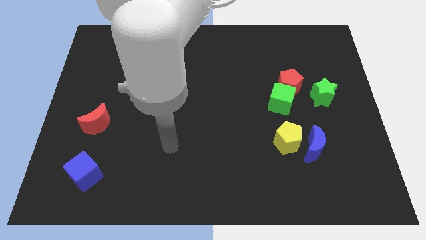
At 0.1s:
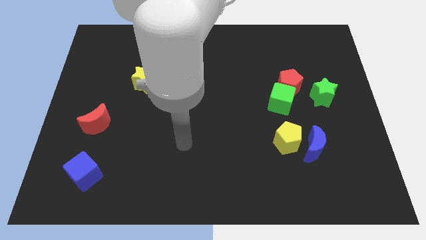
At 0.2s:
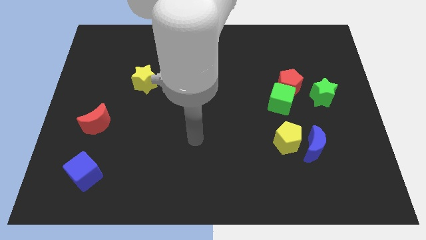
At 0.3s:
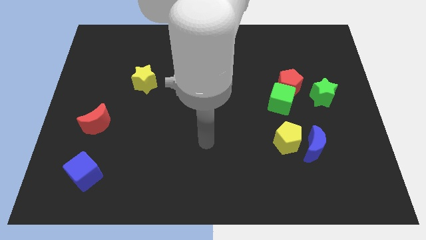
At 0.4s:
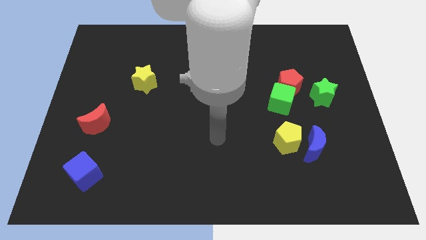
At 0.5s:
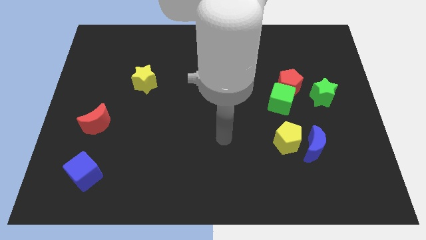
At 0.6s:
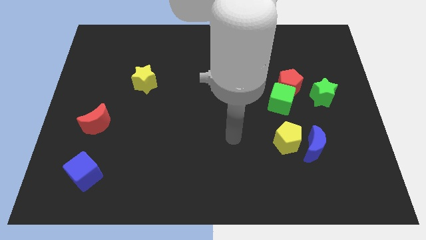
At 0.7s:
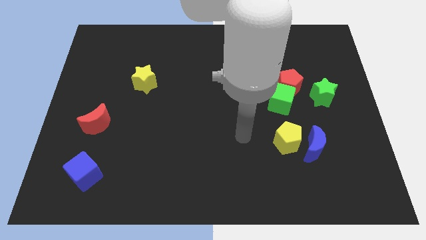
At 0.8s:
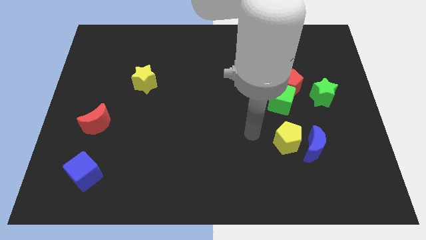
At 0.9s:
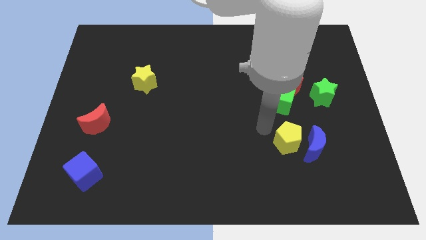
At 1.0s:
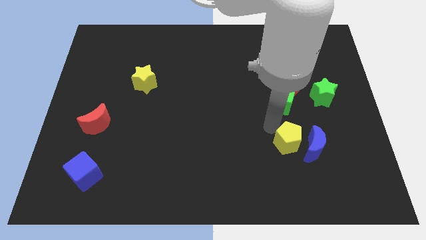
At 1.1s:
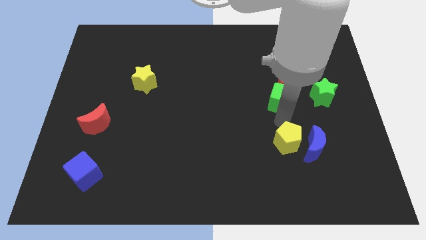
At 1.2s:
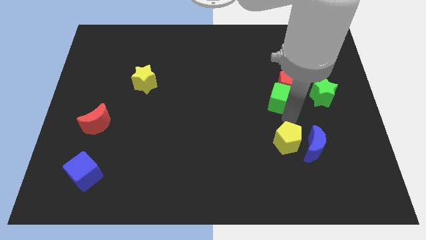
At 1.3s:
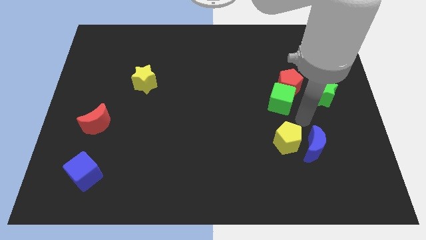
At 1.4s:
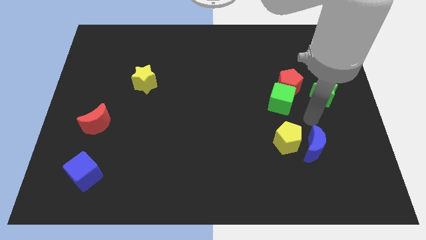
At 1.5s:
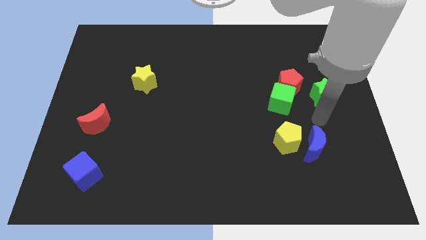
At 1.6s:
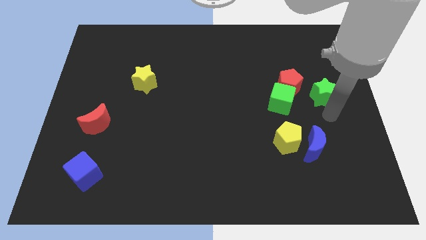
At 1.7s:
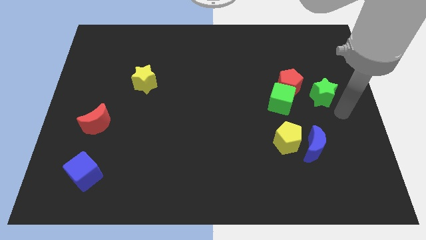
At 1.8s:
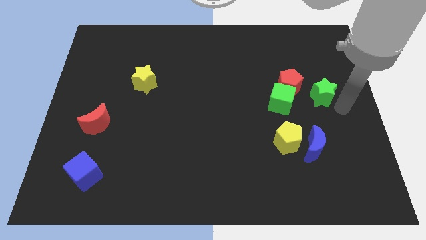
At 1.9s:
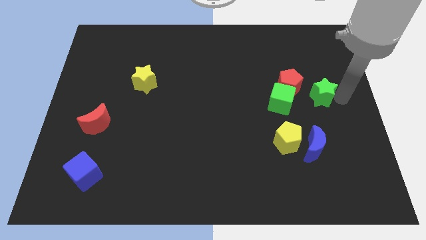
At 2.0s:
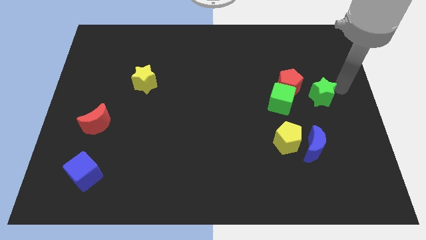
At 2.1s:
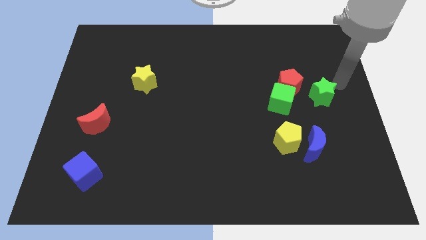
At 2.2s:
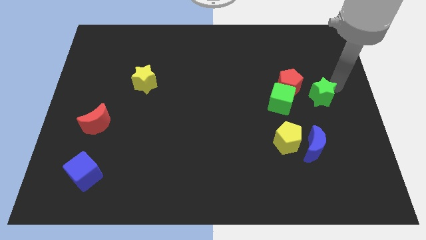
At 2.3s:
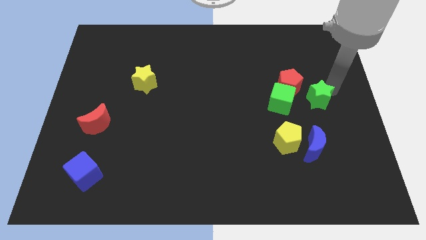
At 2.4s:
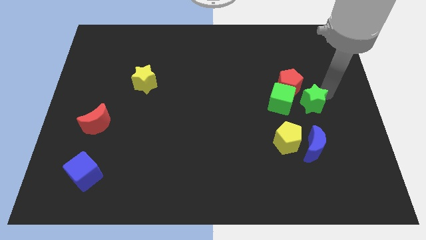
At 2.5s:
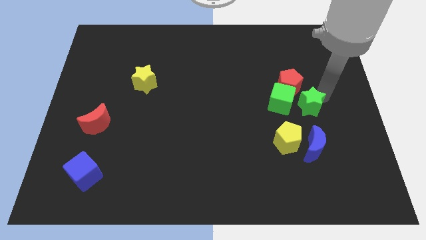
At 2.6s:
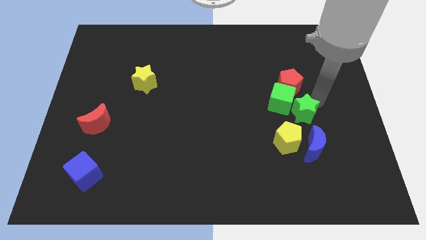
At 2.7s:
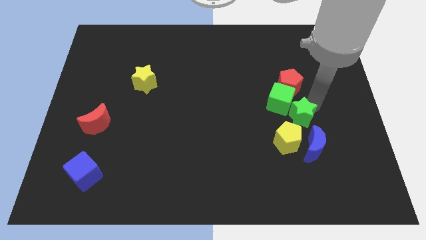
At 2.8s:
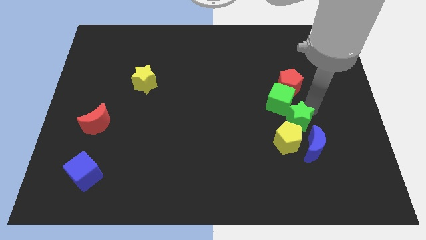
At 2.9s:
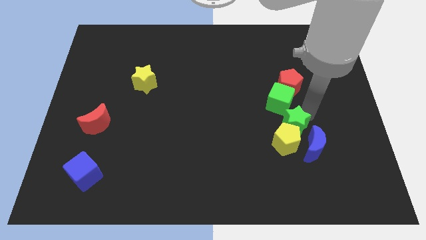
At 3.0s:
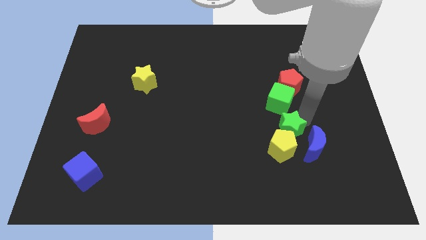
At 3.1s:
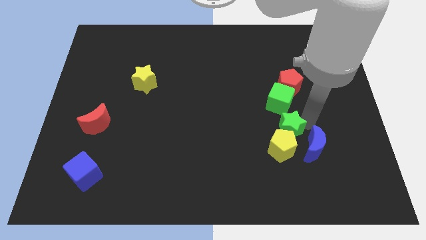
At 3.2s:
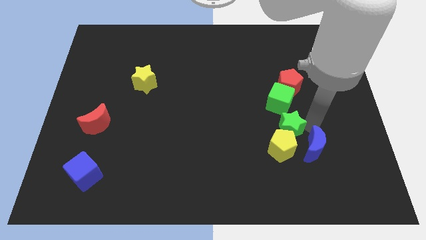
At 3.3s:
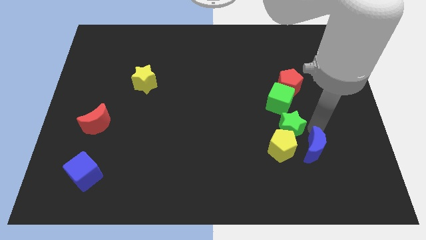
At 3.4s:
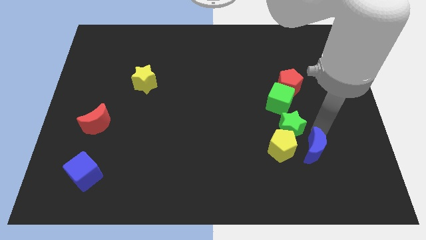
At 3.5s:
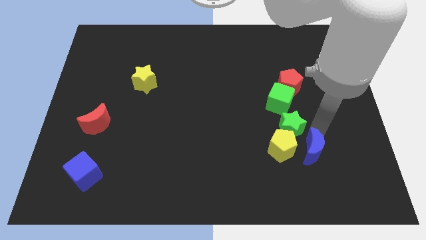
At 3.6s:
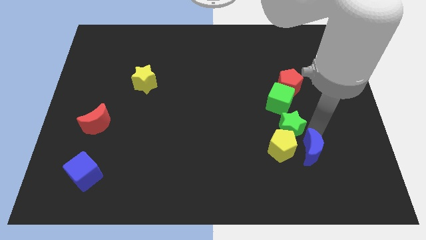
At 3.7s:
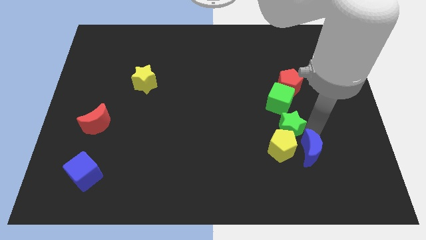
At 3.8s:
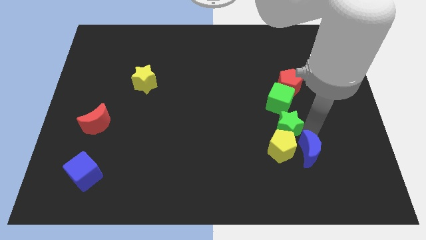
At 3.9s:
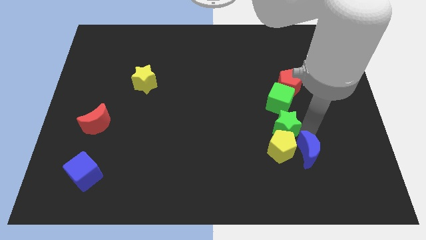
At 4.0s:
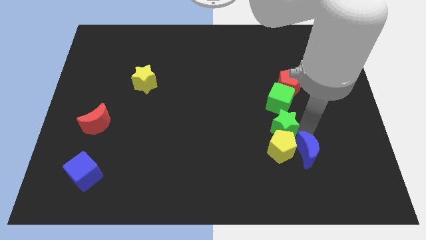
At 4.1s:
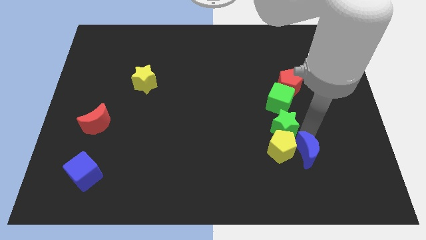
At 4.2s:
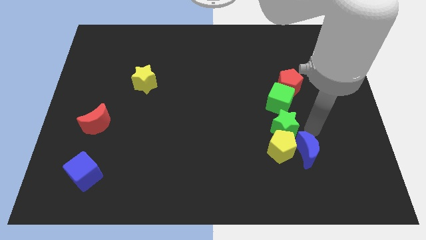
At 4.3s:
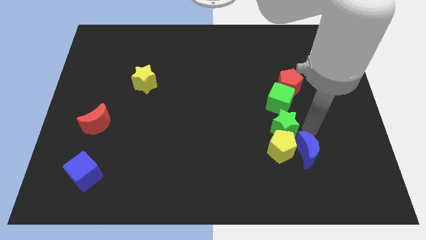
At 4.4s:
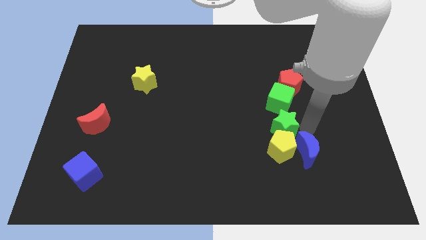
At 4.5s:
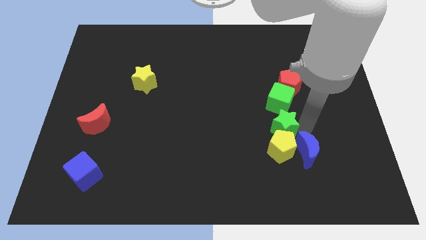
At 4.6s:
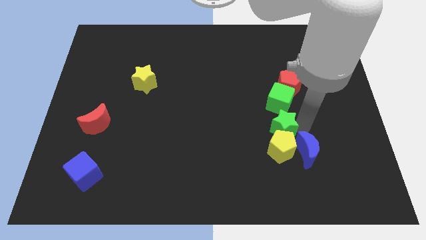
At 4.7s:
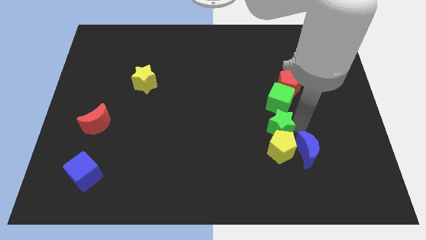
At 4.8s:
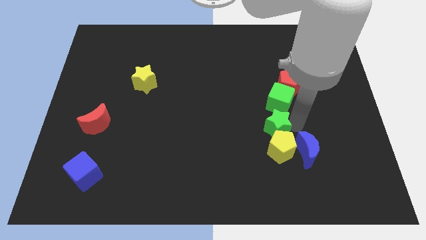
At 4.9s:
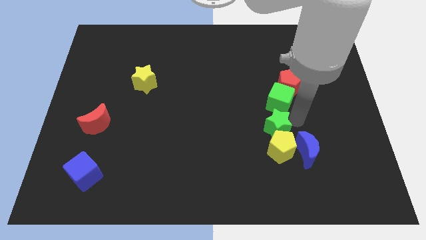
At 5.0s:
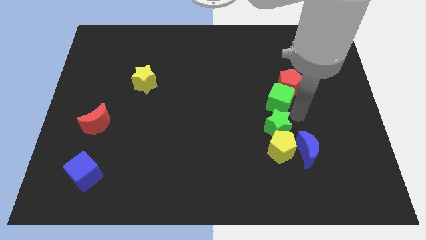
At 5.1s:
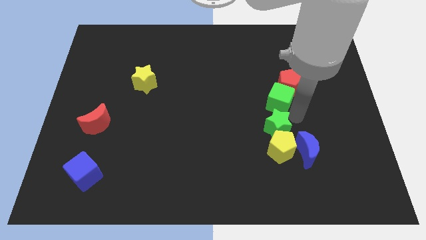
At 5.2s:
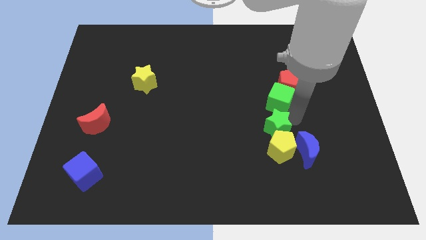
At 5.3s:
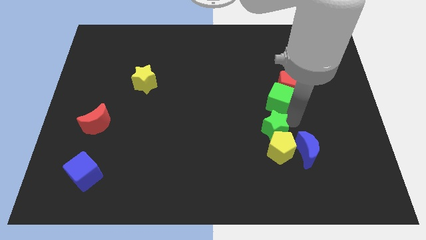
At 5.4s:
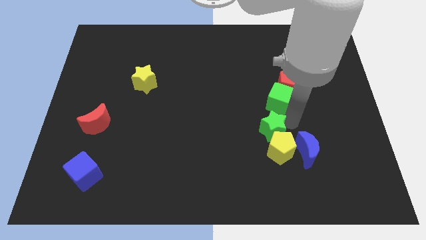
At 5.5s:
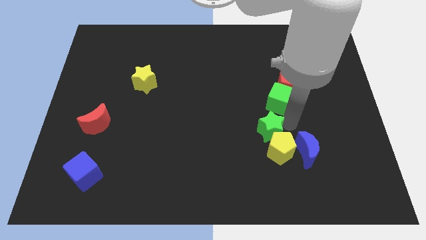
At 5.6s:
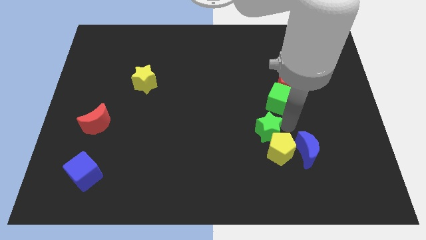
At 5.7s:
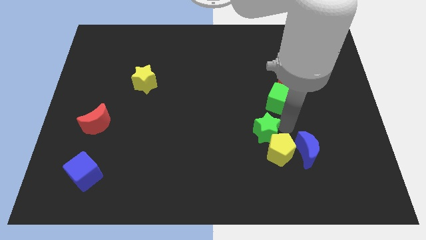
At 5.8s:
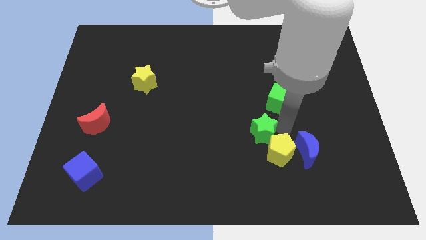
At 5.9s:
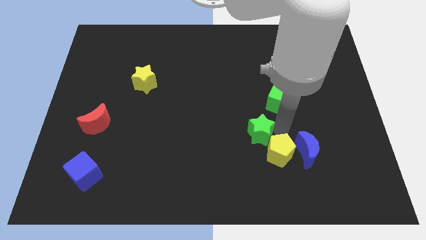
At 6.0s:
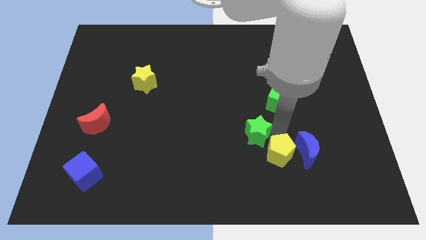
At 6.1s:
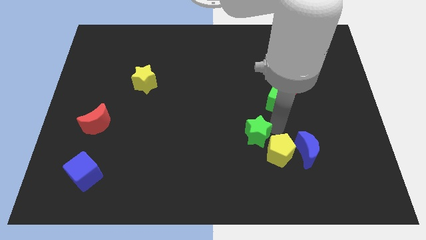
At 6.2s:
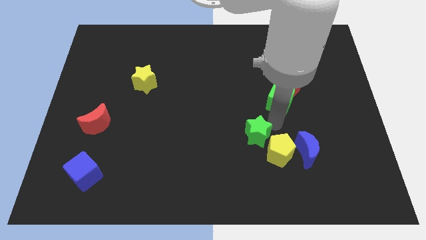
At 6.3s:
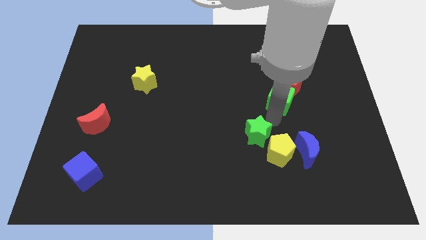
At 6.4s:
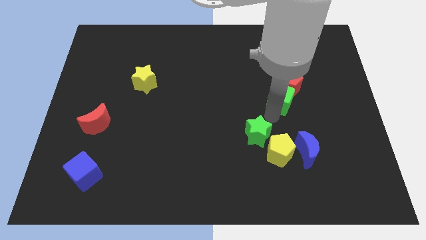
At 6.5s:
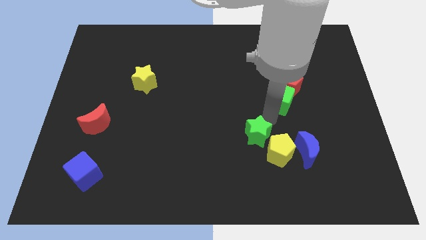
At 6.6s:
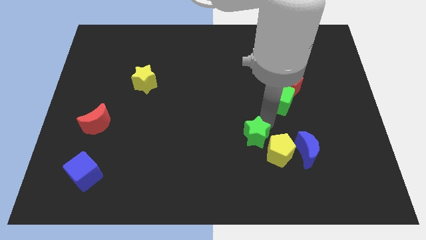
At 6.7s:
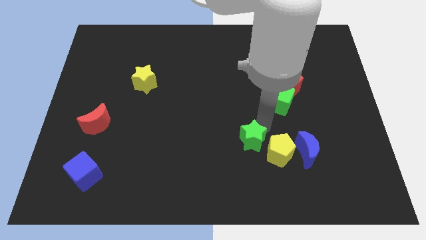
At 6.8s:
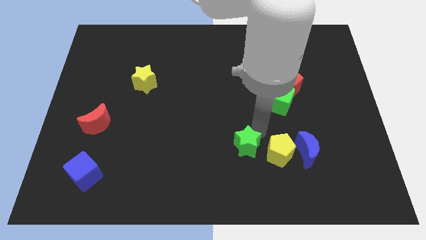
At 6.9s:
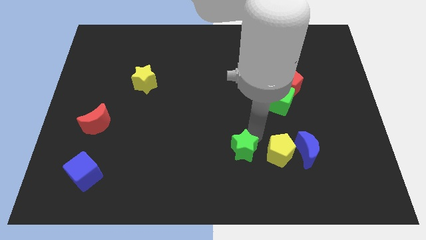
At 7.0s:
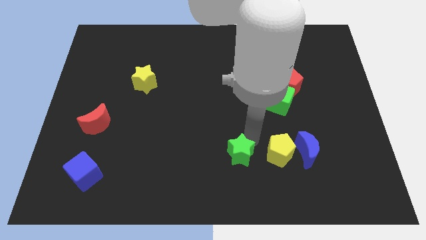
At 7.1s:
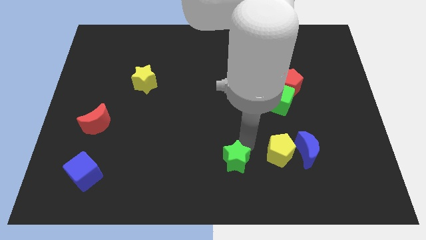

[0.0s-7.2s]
move the green star to the bottom
